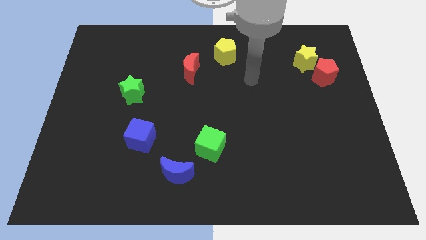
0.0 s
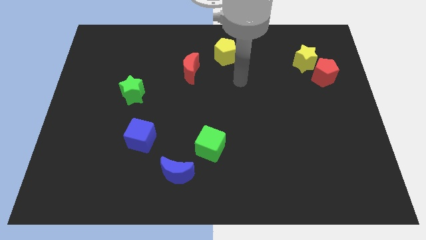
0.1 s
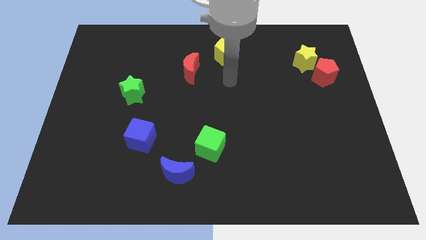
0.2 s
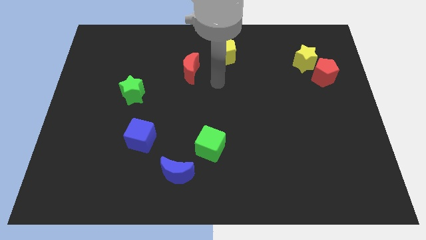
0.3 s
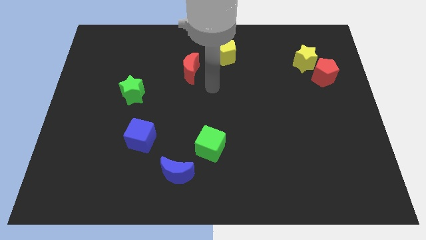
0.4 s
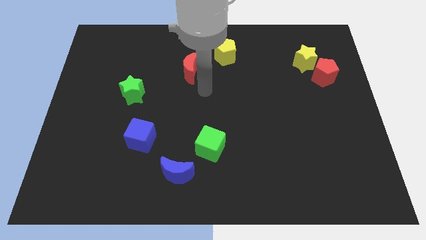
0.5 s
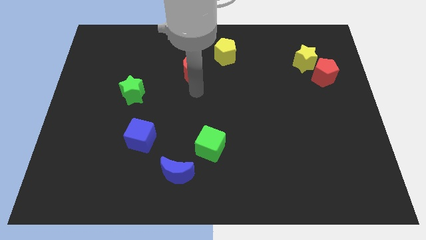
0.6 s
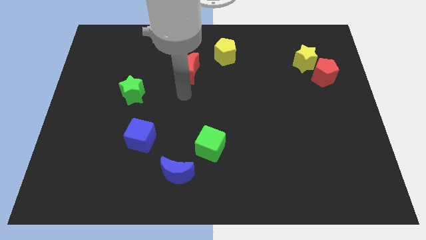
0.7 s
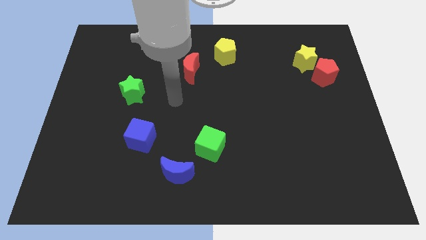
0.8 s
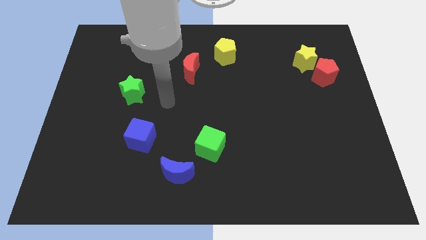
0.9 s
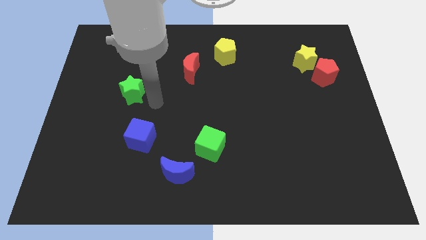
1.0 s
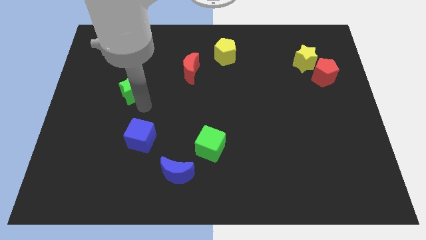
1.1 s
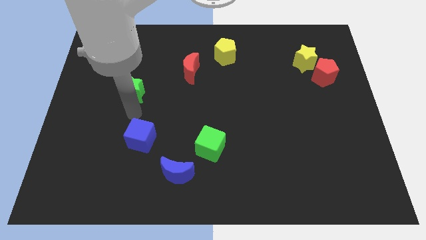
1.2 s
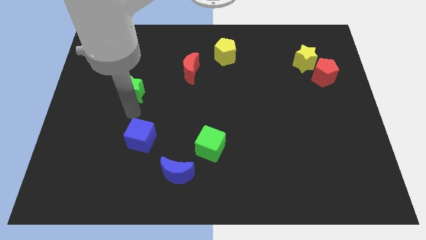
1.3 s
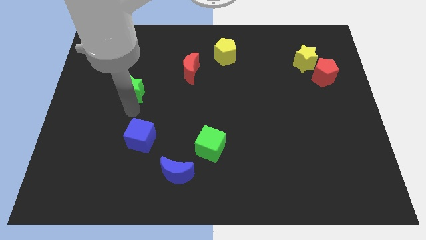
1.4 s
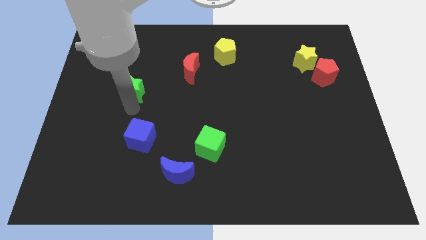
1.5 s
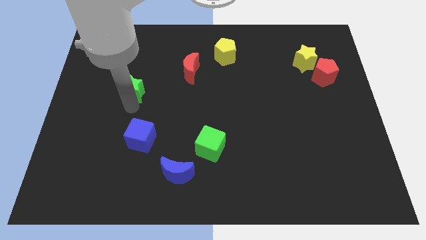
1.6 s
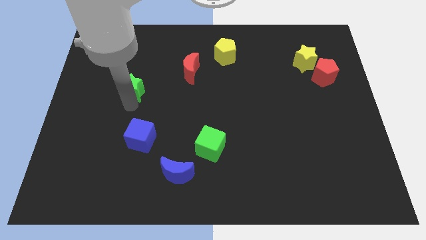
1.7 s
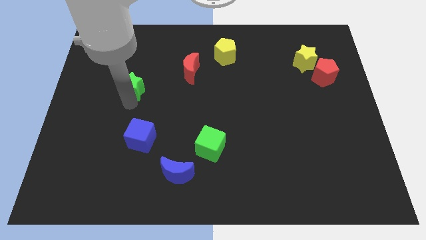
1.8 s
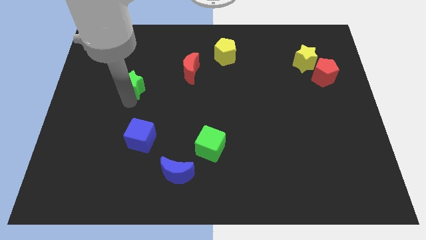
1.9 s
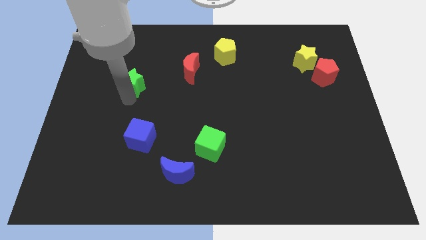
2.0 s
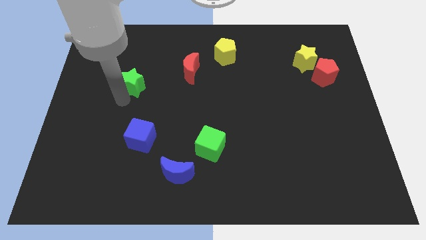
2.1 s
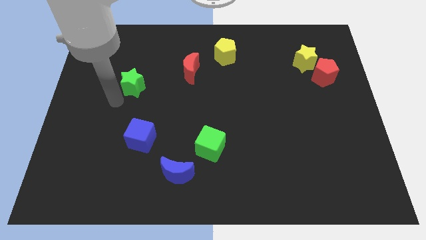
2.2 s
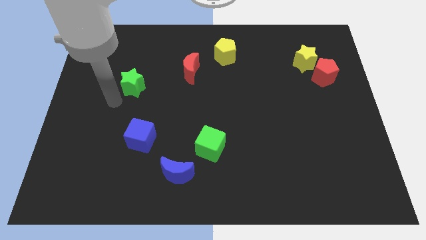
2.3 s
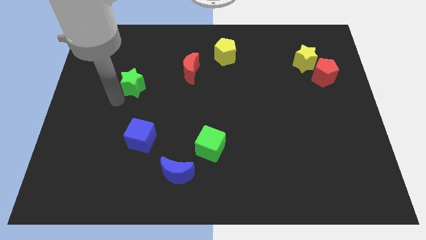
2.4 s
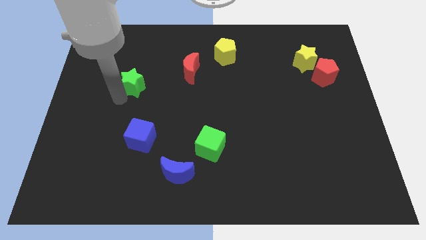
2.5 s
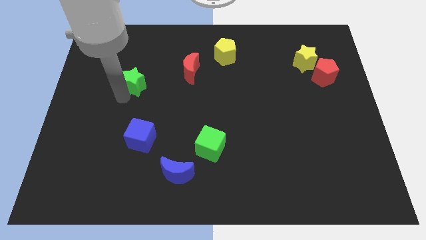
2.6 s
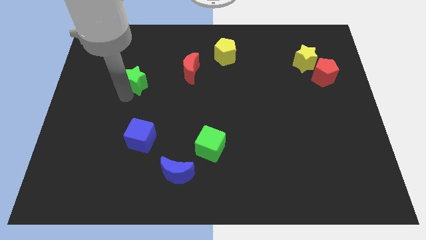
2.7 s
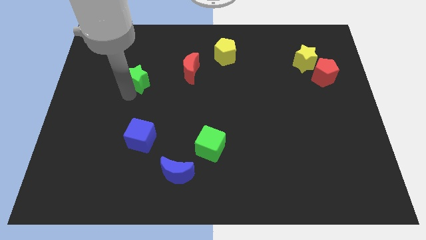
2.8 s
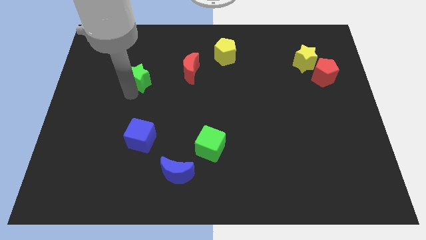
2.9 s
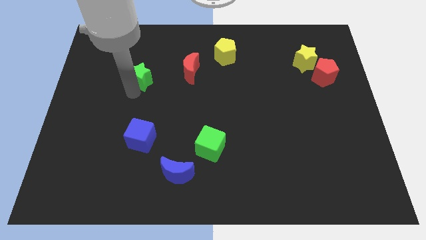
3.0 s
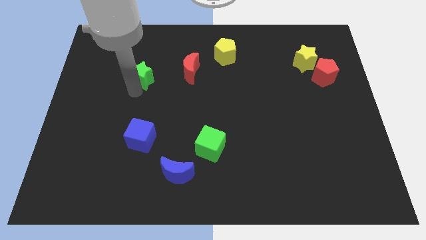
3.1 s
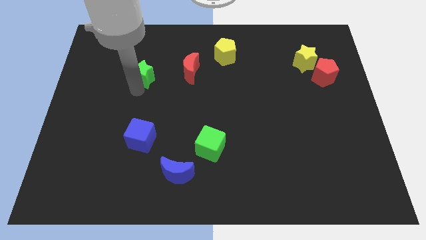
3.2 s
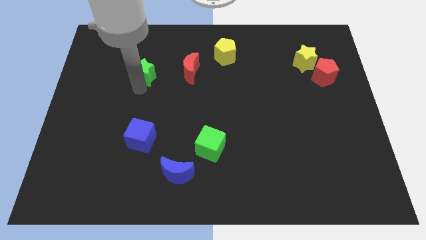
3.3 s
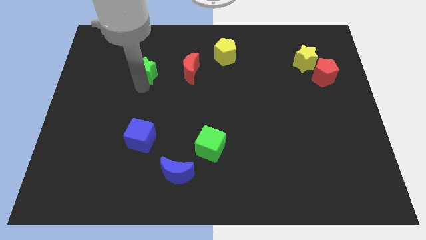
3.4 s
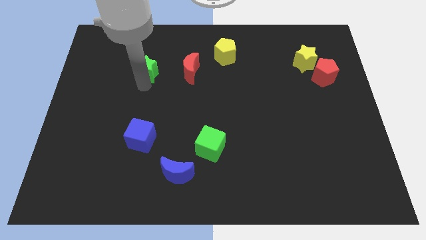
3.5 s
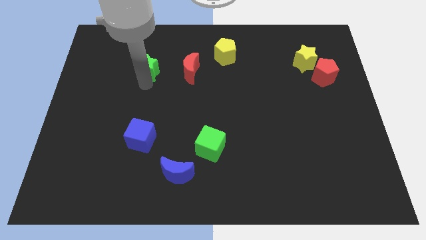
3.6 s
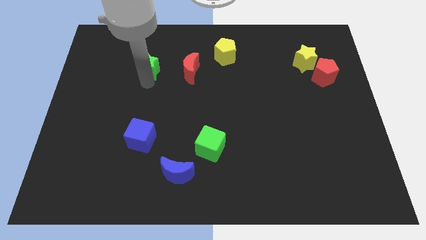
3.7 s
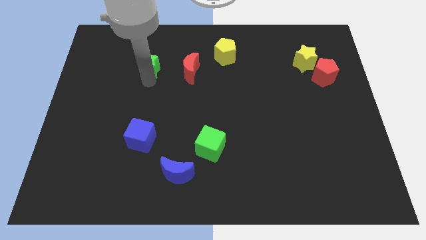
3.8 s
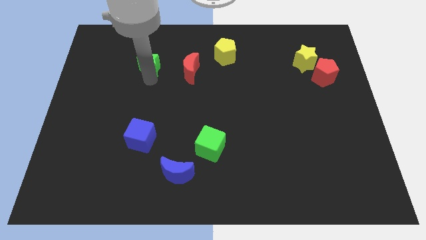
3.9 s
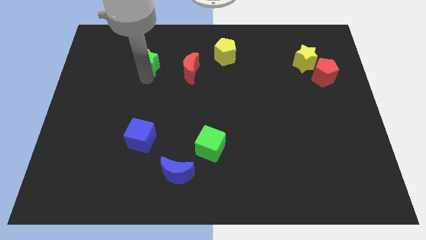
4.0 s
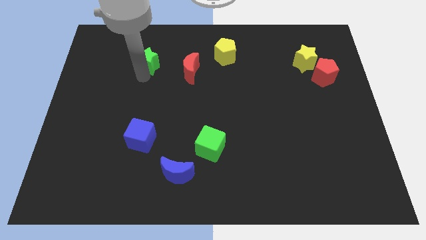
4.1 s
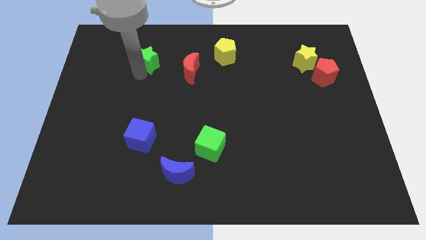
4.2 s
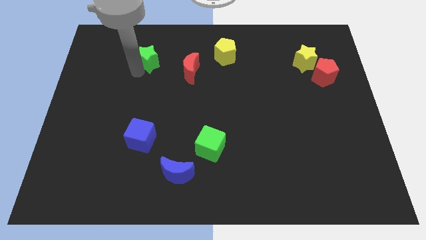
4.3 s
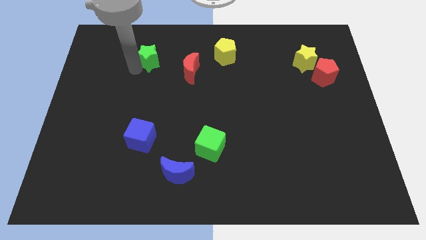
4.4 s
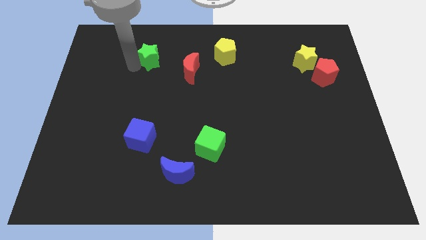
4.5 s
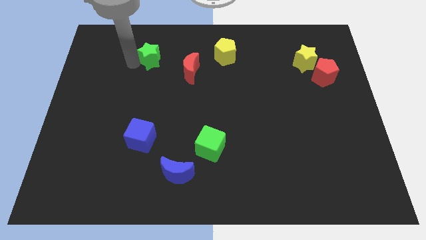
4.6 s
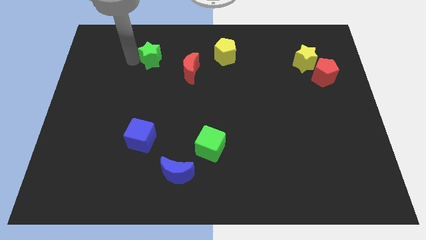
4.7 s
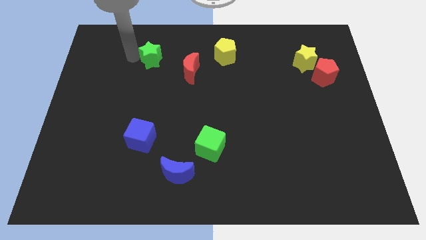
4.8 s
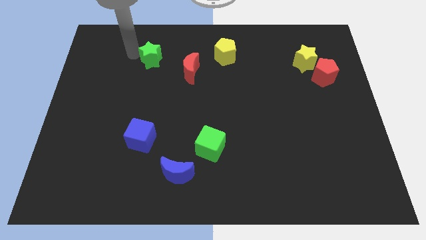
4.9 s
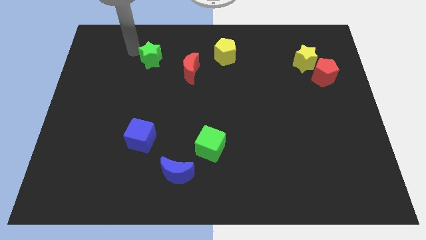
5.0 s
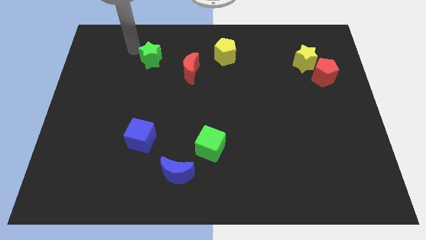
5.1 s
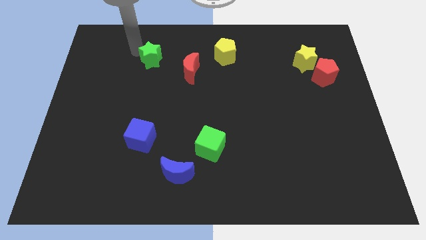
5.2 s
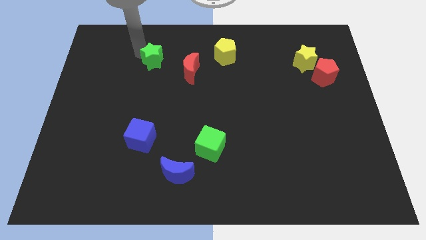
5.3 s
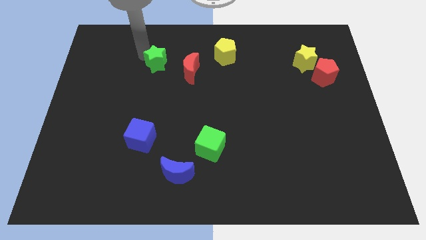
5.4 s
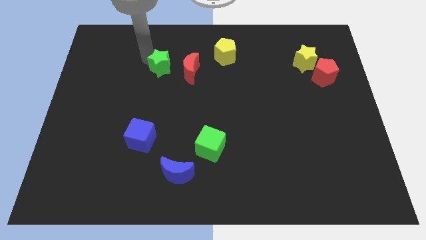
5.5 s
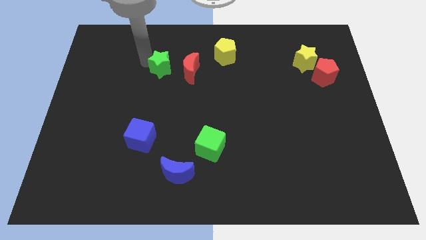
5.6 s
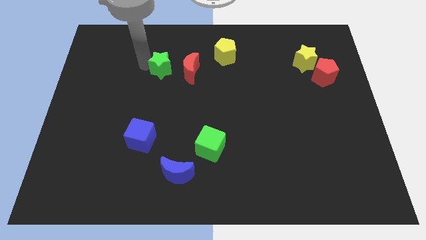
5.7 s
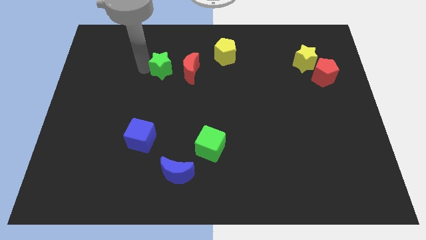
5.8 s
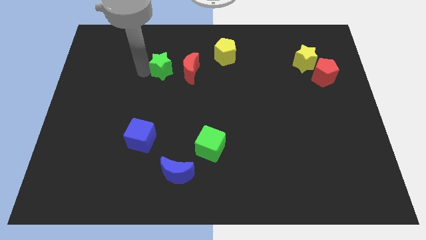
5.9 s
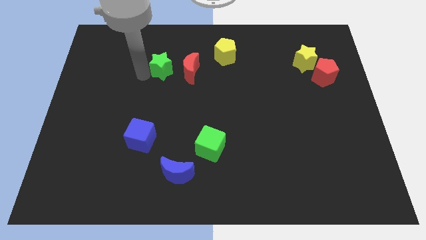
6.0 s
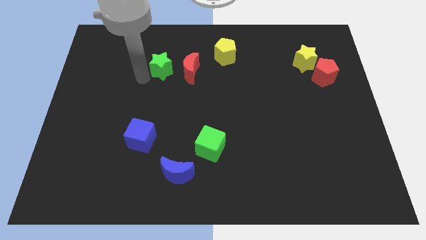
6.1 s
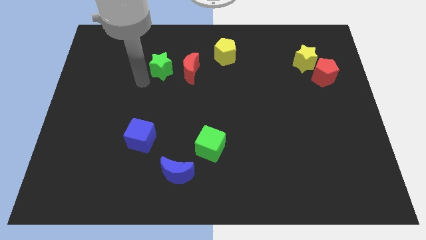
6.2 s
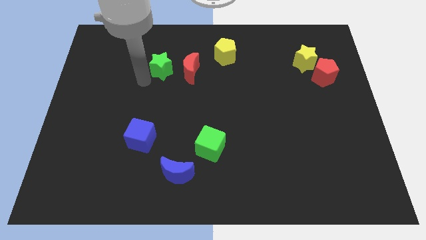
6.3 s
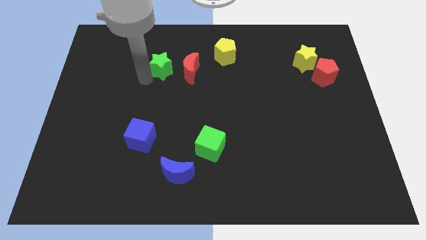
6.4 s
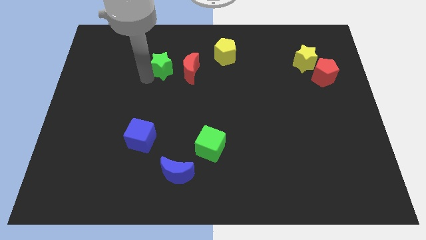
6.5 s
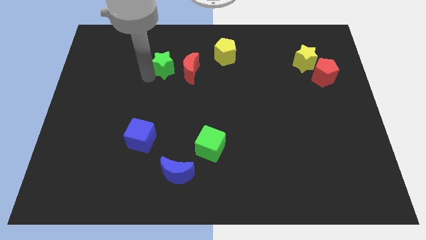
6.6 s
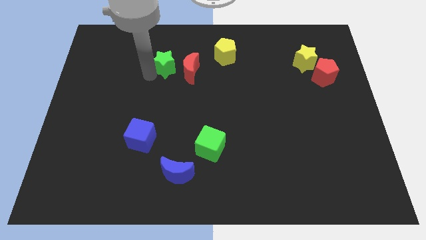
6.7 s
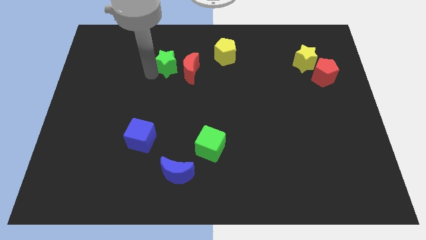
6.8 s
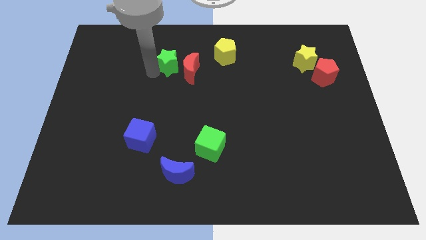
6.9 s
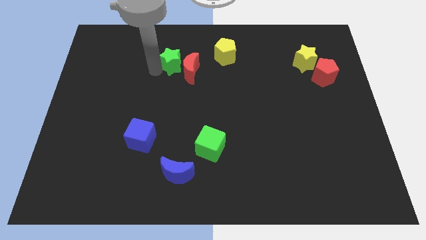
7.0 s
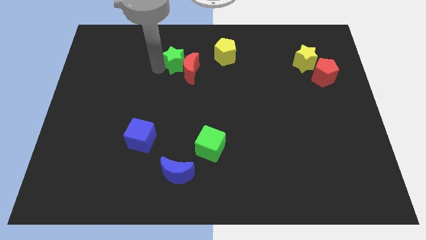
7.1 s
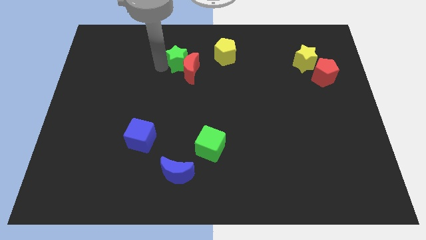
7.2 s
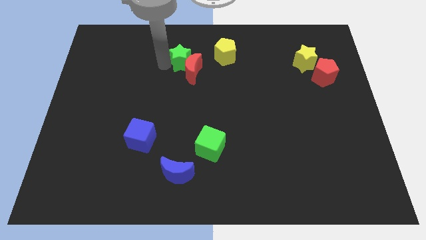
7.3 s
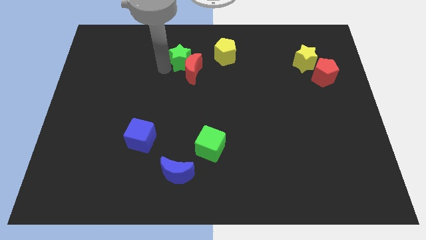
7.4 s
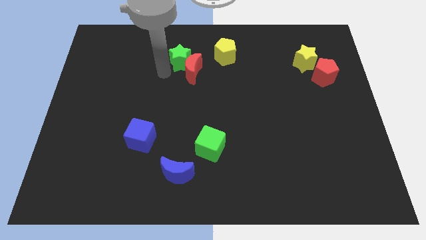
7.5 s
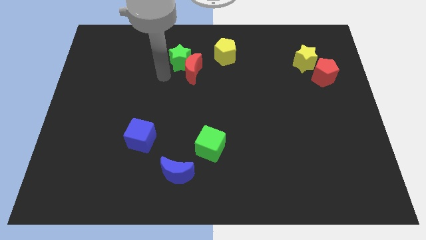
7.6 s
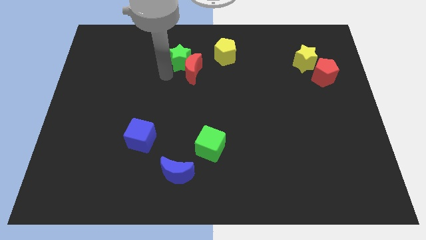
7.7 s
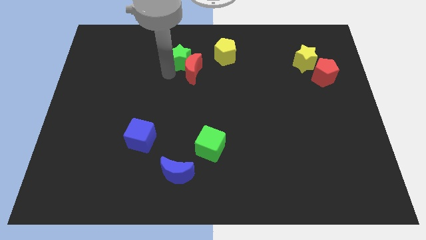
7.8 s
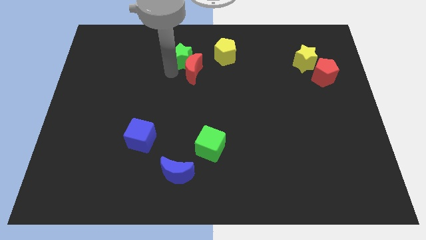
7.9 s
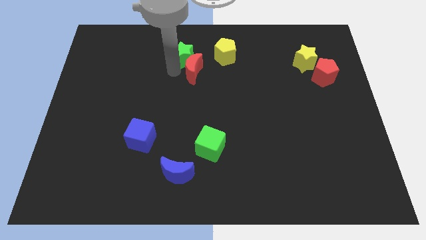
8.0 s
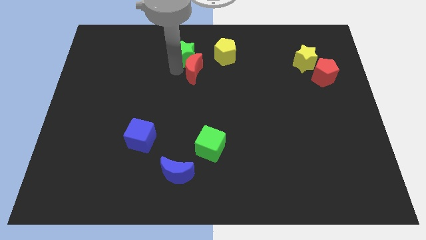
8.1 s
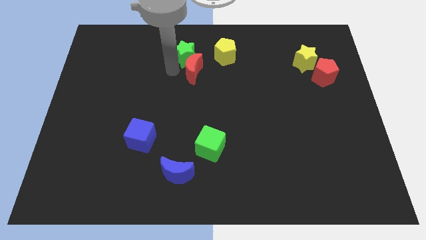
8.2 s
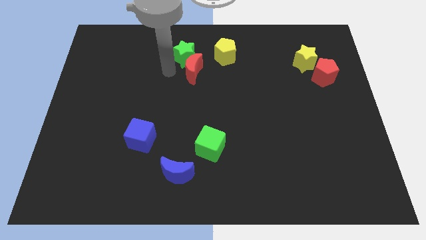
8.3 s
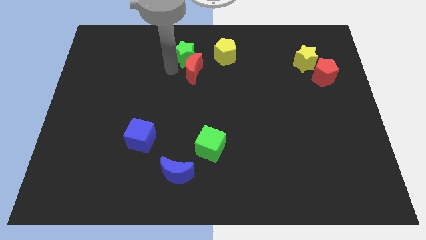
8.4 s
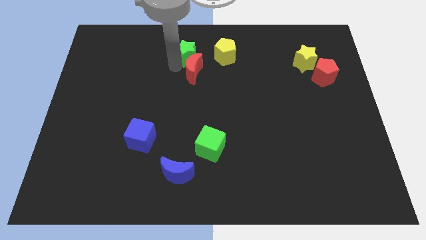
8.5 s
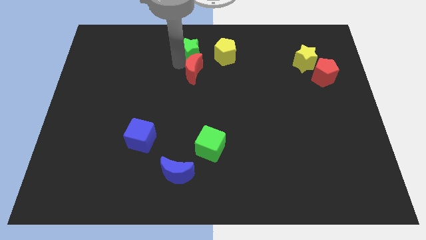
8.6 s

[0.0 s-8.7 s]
push the green star to the top
